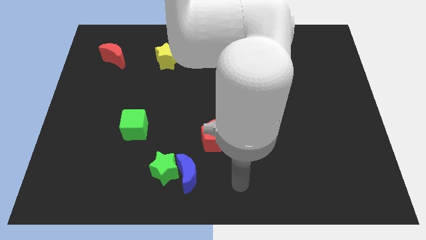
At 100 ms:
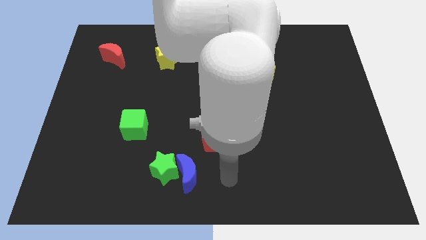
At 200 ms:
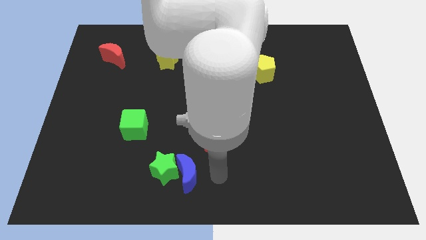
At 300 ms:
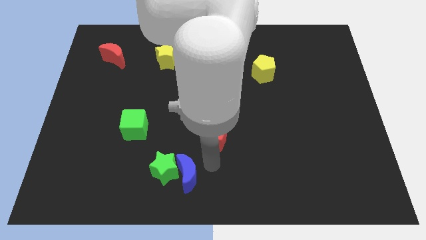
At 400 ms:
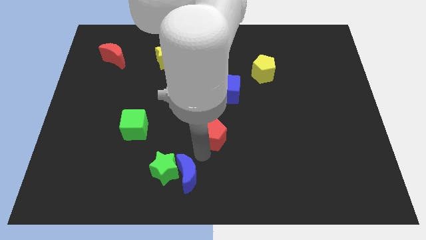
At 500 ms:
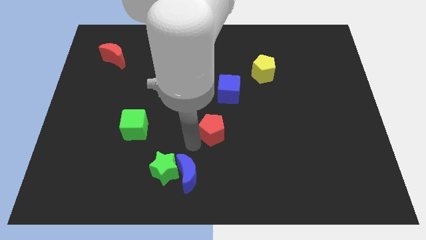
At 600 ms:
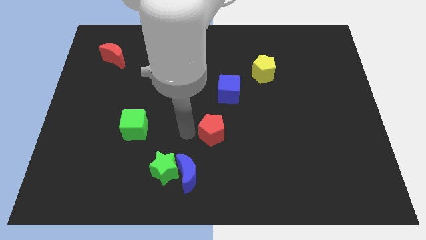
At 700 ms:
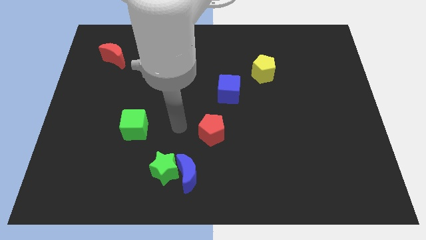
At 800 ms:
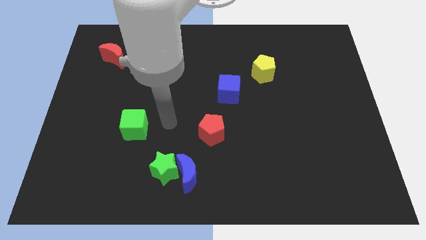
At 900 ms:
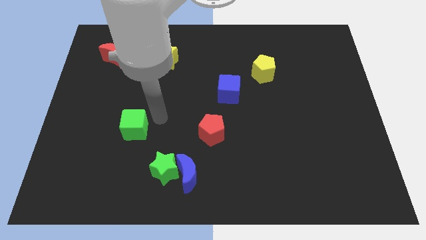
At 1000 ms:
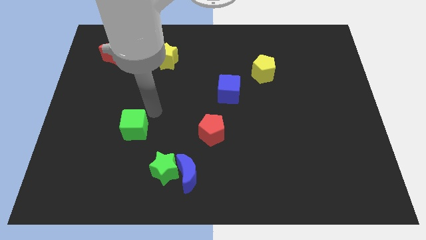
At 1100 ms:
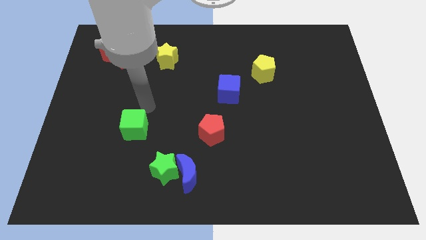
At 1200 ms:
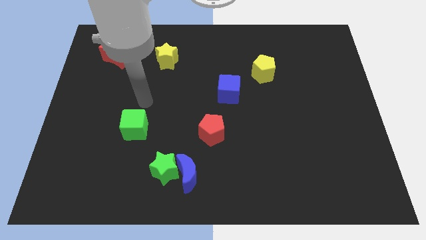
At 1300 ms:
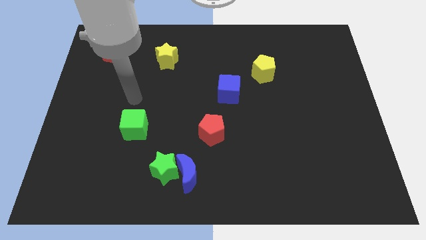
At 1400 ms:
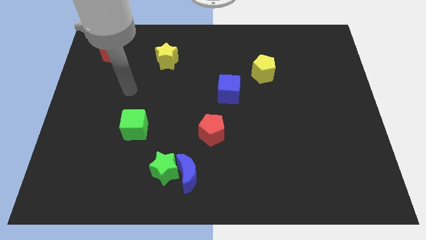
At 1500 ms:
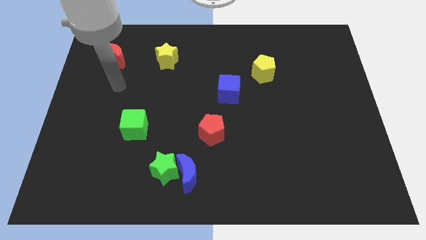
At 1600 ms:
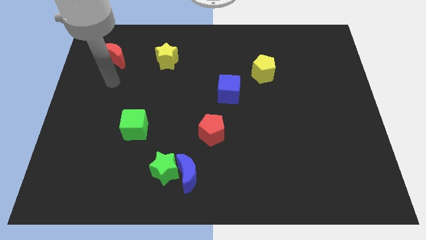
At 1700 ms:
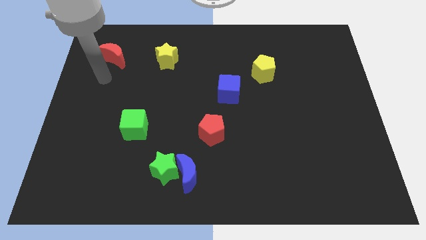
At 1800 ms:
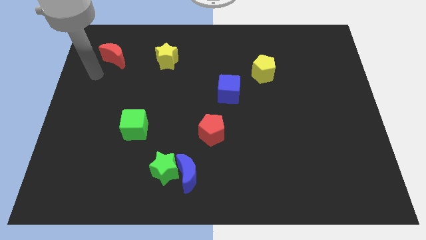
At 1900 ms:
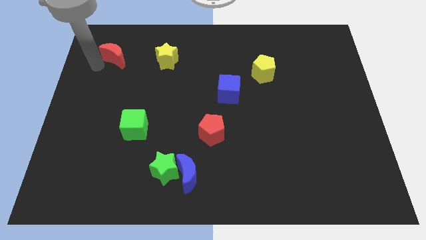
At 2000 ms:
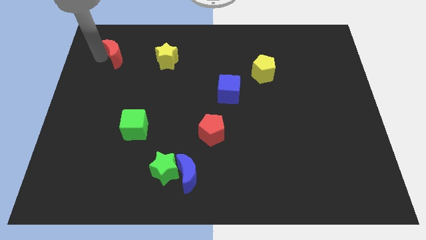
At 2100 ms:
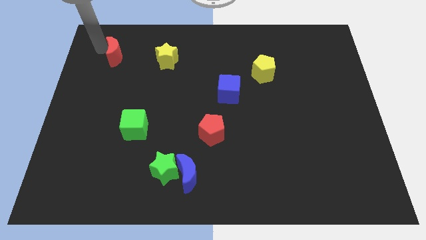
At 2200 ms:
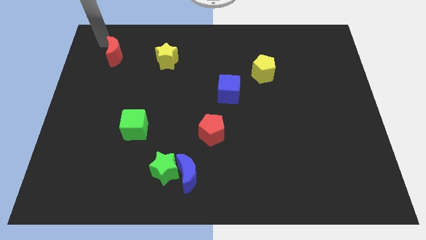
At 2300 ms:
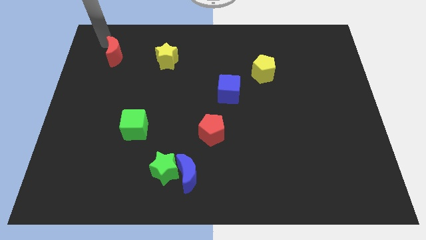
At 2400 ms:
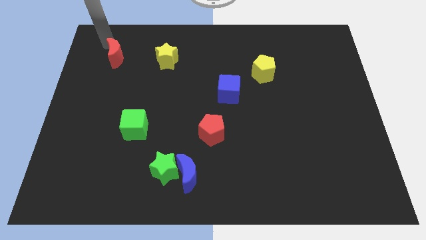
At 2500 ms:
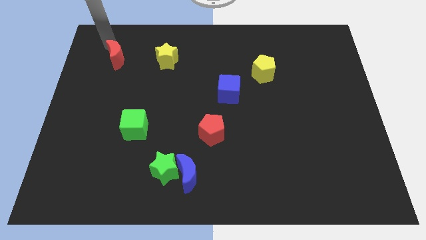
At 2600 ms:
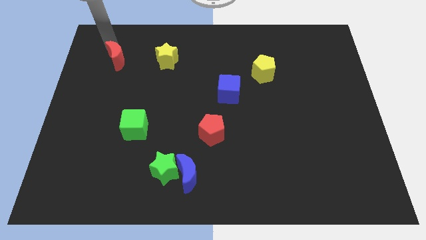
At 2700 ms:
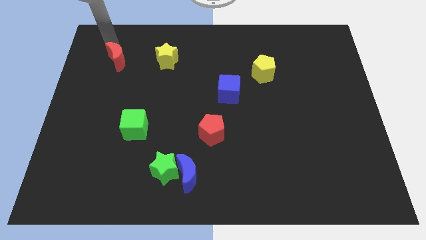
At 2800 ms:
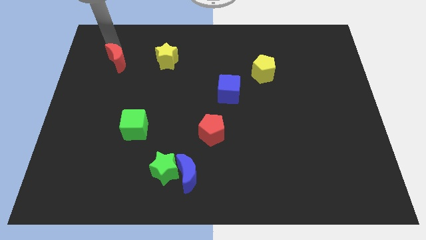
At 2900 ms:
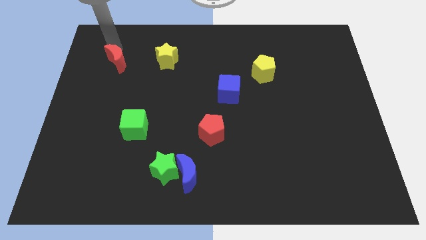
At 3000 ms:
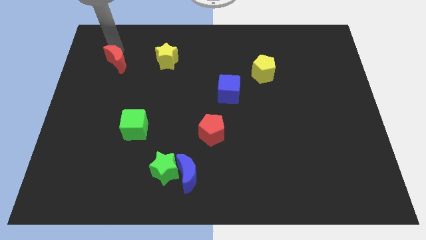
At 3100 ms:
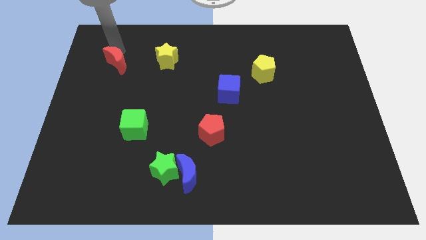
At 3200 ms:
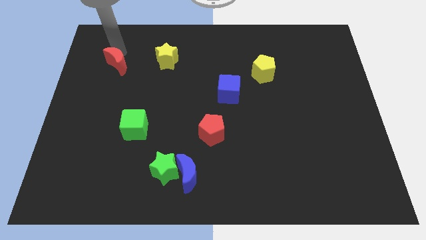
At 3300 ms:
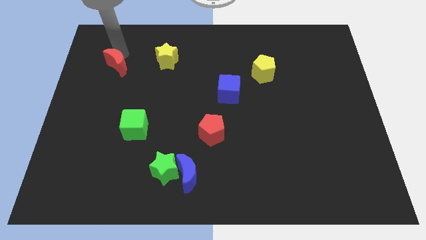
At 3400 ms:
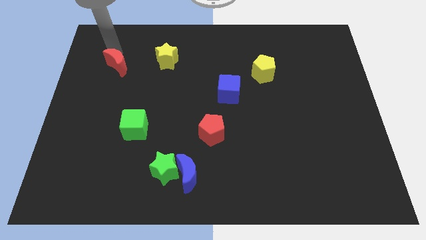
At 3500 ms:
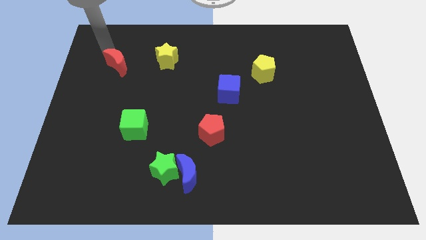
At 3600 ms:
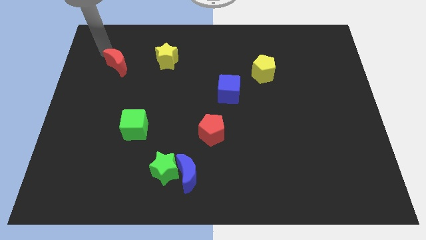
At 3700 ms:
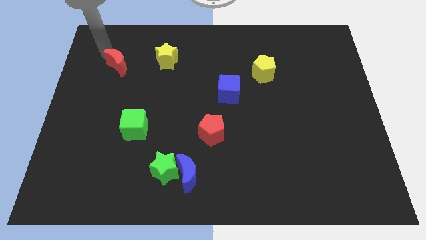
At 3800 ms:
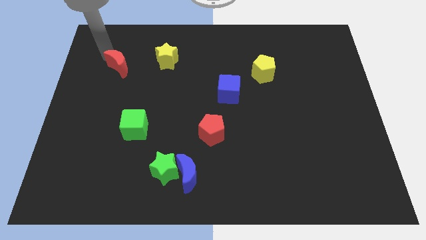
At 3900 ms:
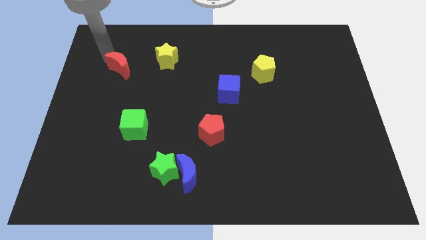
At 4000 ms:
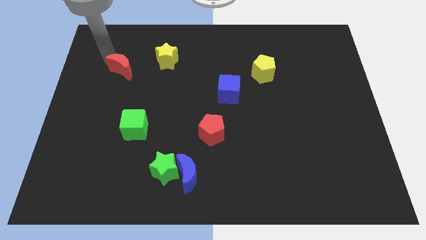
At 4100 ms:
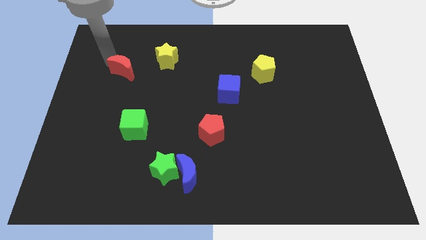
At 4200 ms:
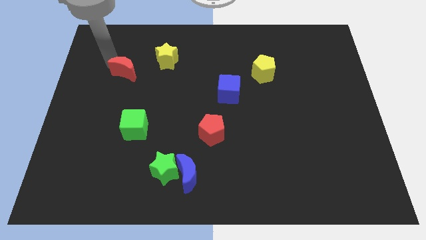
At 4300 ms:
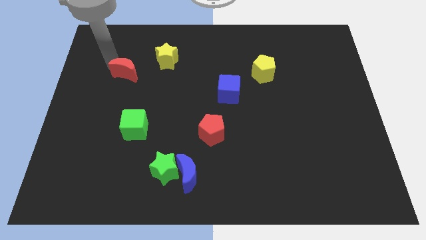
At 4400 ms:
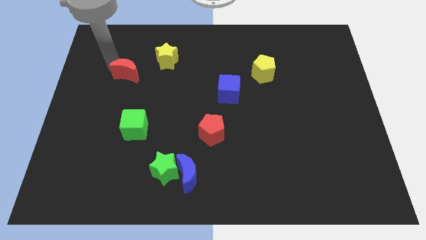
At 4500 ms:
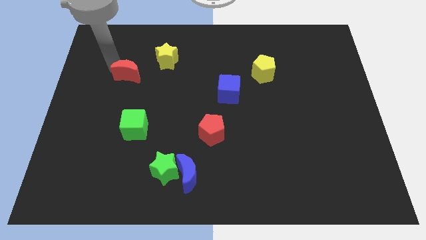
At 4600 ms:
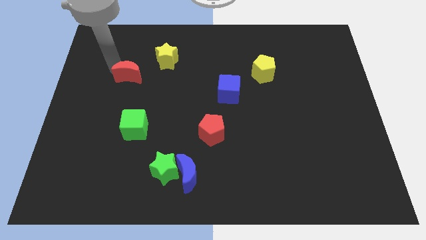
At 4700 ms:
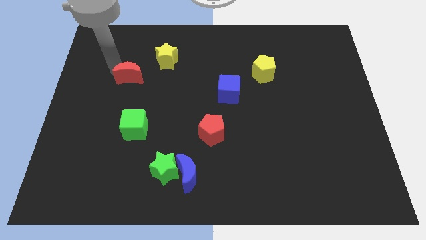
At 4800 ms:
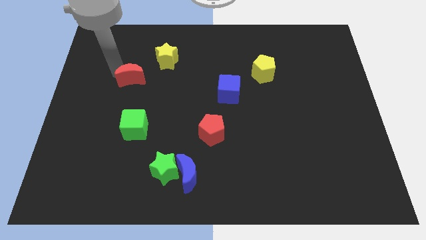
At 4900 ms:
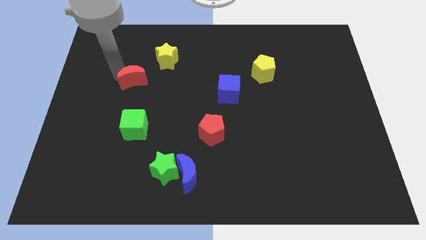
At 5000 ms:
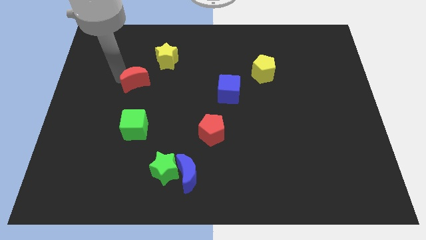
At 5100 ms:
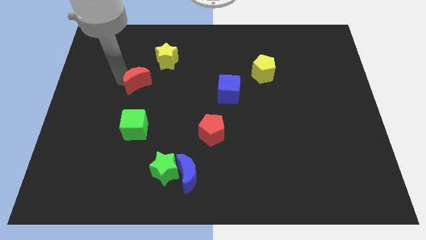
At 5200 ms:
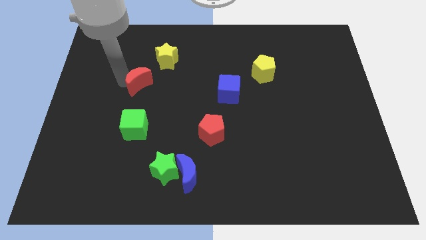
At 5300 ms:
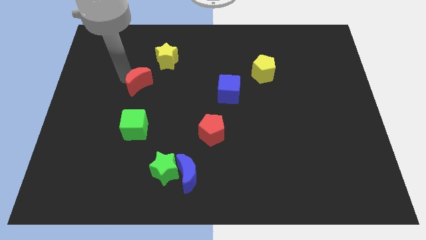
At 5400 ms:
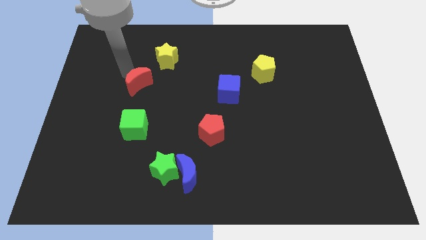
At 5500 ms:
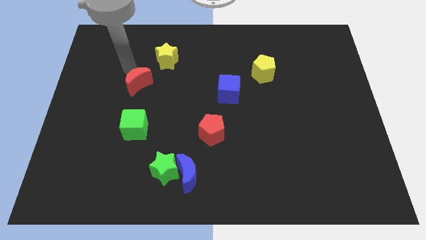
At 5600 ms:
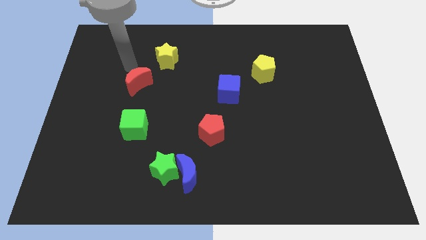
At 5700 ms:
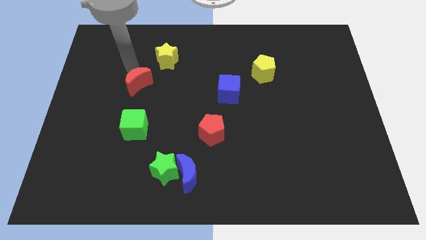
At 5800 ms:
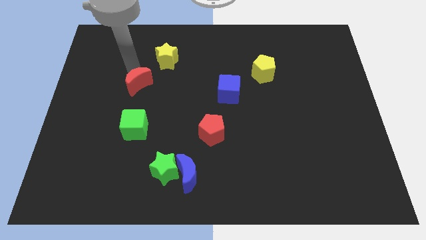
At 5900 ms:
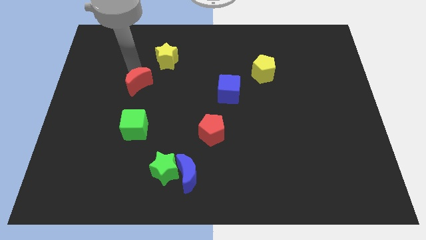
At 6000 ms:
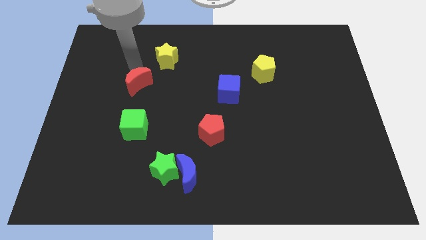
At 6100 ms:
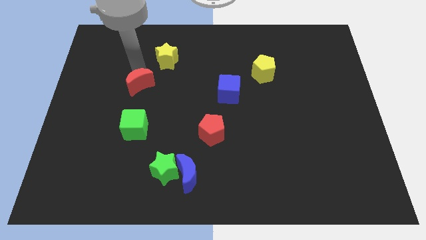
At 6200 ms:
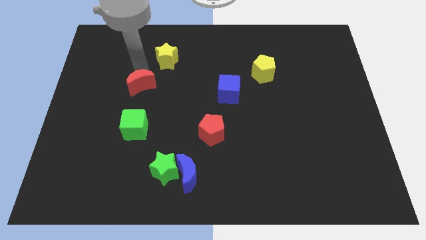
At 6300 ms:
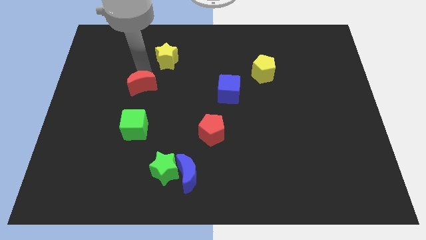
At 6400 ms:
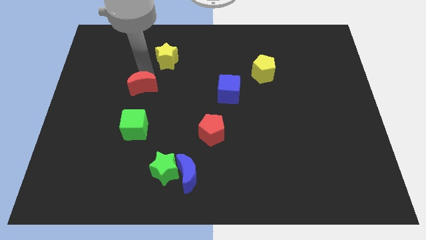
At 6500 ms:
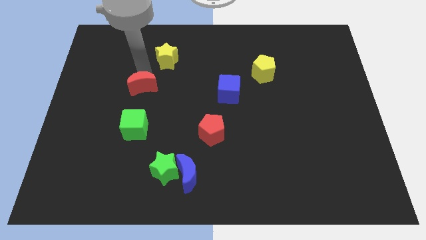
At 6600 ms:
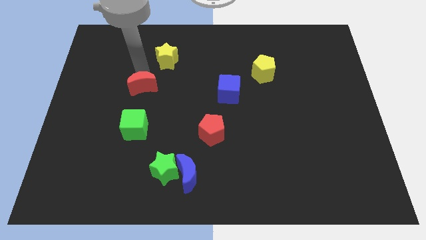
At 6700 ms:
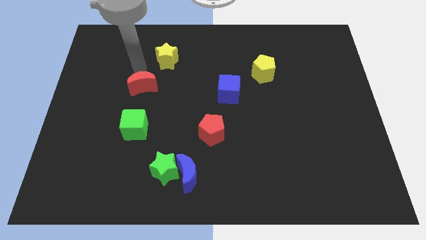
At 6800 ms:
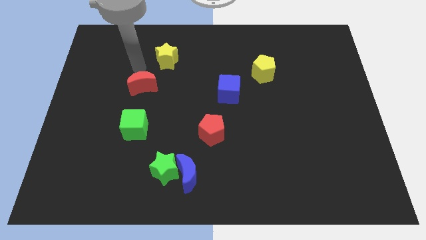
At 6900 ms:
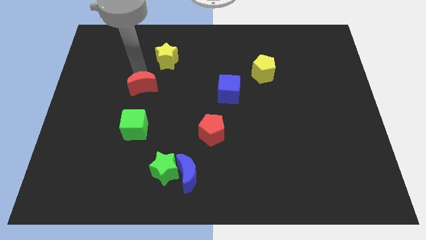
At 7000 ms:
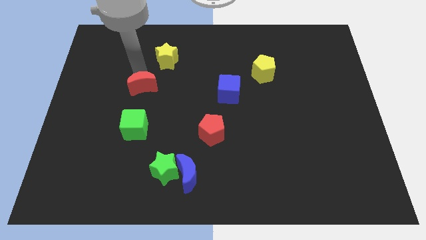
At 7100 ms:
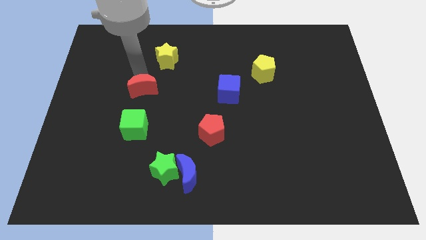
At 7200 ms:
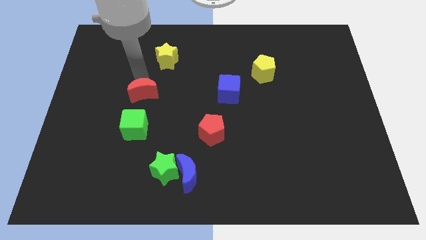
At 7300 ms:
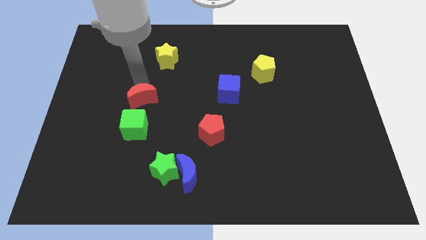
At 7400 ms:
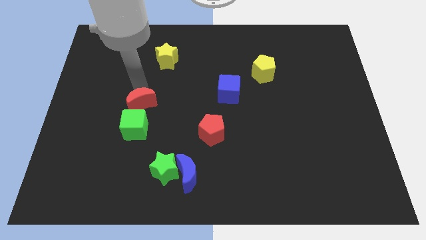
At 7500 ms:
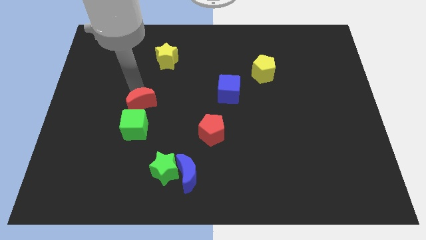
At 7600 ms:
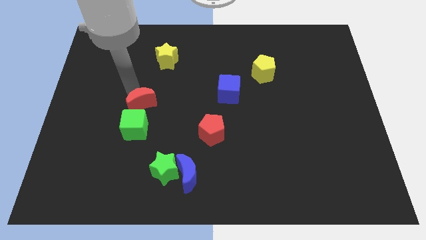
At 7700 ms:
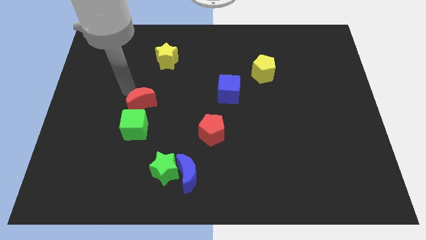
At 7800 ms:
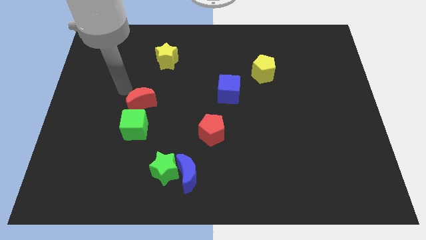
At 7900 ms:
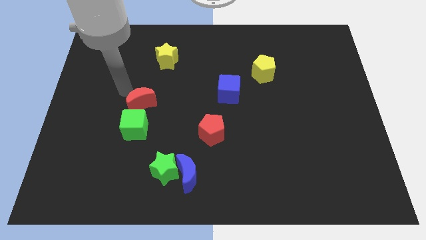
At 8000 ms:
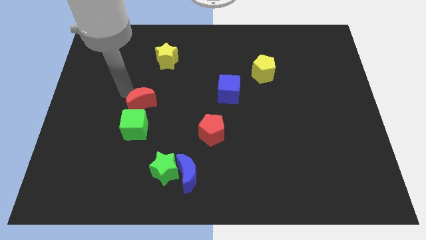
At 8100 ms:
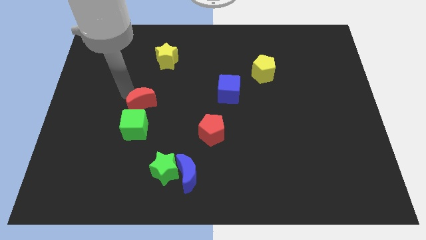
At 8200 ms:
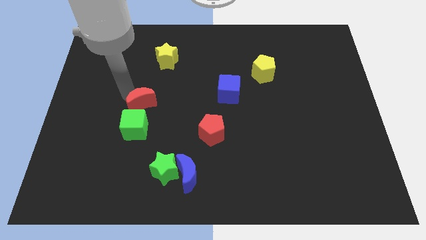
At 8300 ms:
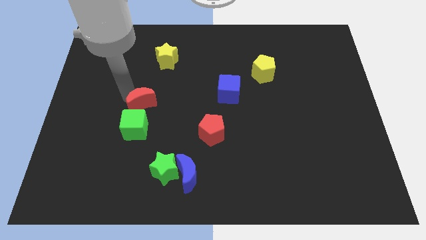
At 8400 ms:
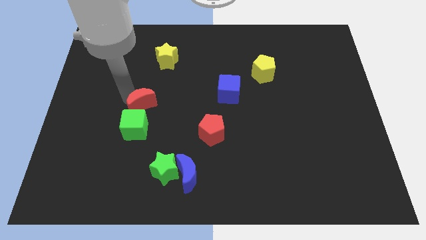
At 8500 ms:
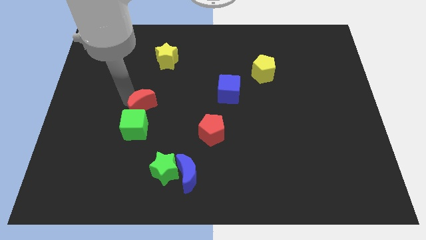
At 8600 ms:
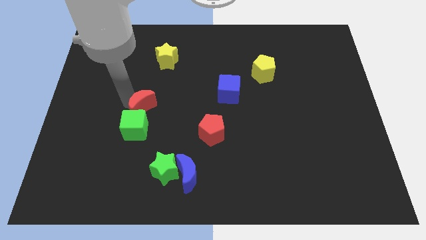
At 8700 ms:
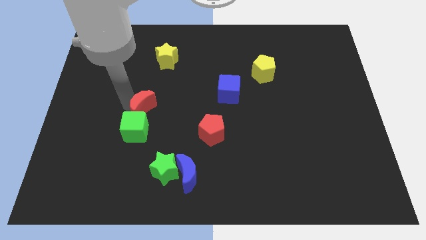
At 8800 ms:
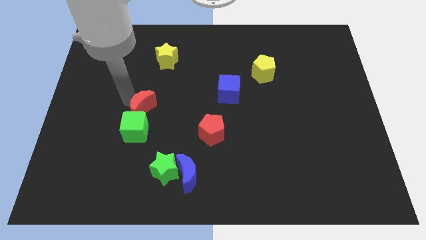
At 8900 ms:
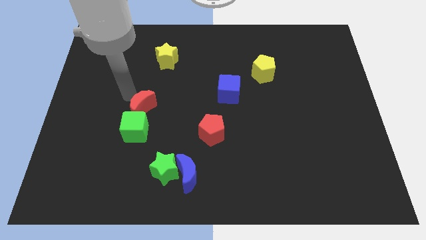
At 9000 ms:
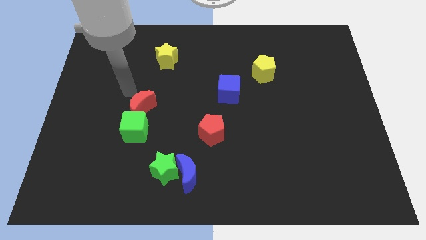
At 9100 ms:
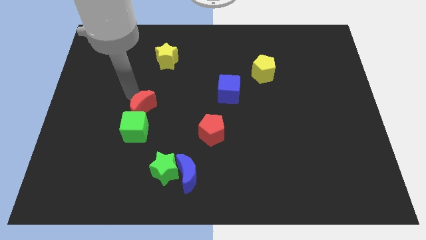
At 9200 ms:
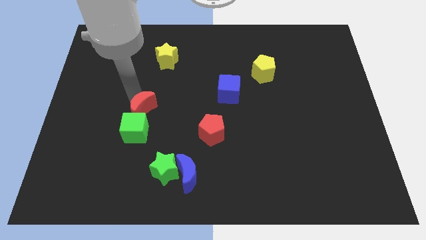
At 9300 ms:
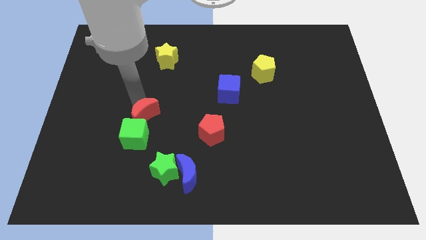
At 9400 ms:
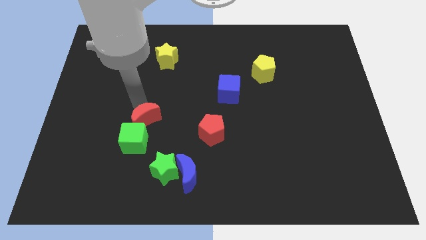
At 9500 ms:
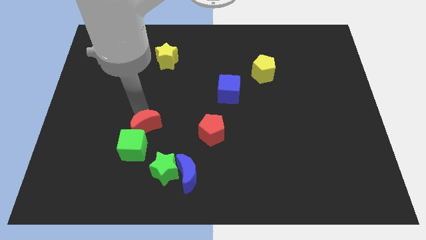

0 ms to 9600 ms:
slide the red moon down and then to the right
